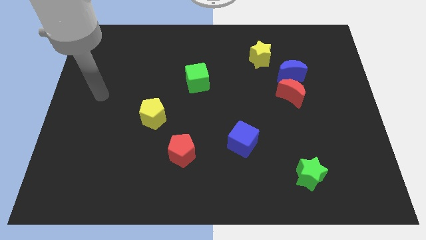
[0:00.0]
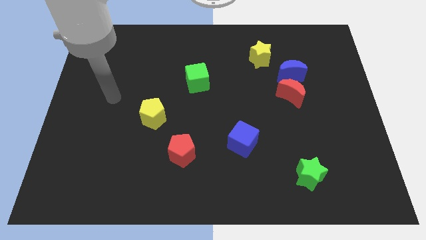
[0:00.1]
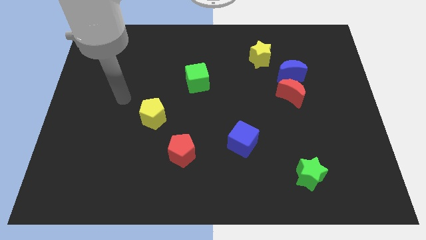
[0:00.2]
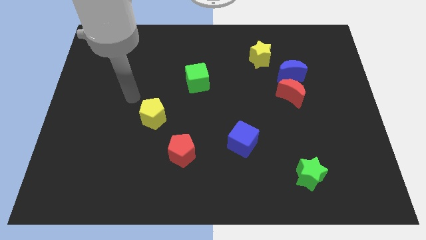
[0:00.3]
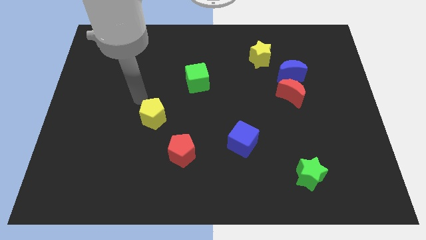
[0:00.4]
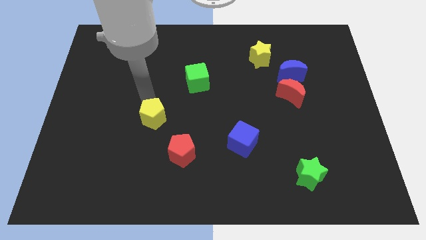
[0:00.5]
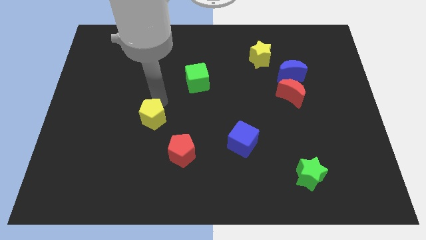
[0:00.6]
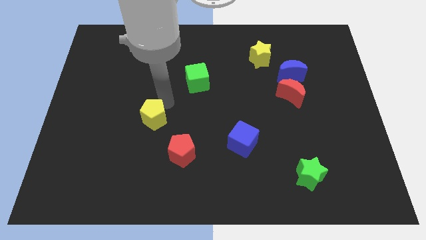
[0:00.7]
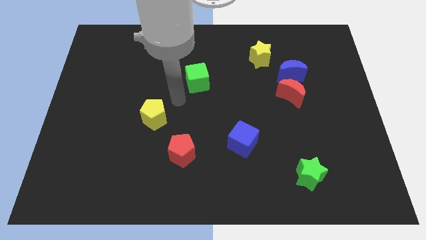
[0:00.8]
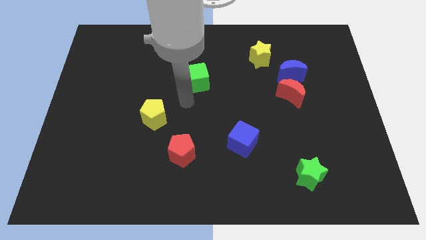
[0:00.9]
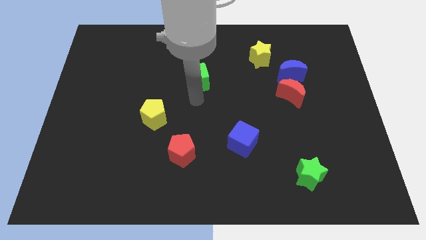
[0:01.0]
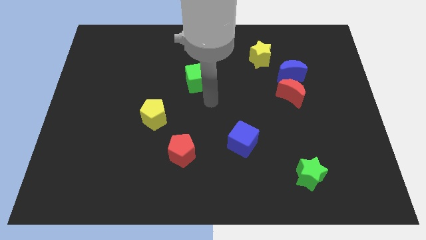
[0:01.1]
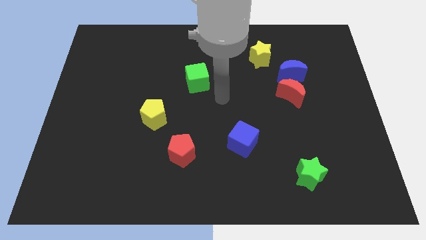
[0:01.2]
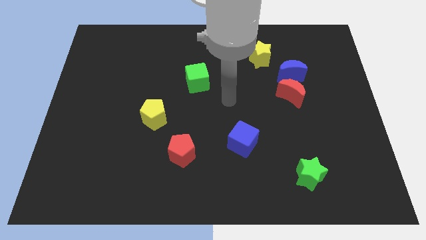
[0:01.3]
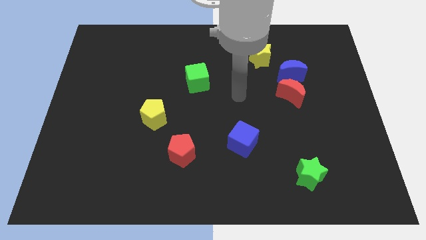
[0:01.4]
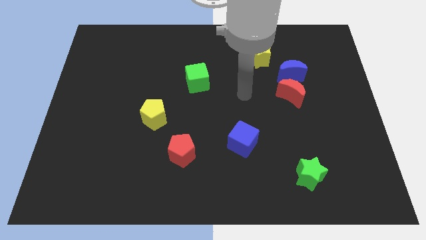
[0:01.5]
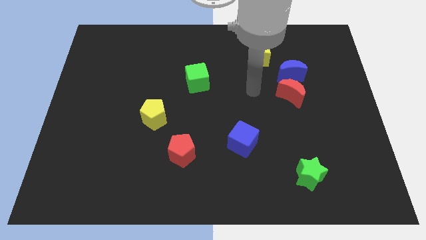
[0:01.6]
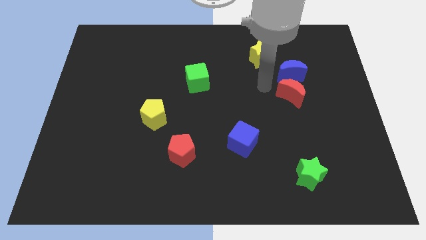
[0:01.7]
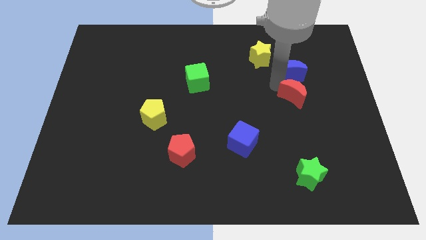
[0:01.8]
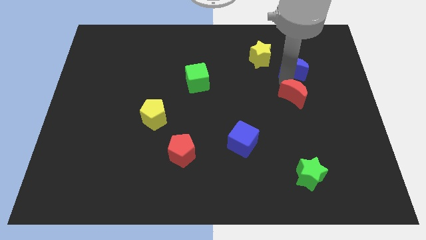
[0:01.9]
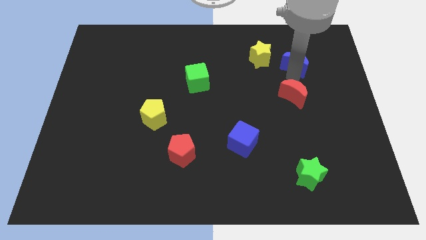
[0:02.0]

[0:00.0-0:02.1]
move the red moon away from the blue moon

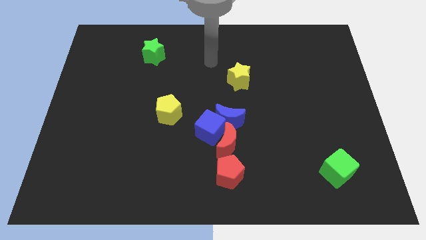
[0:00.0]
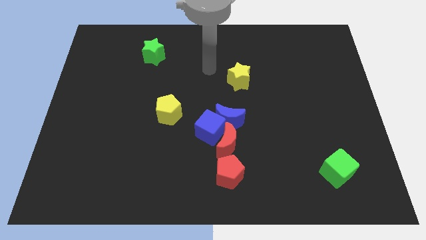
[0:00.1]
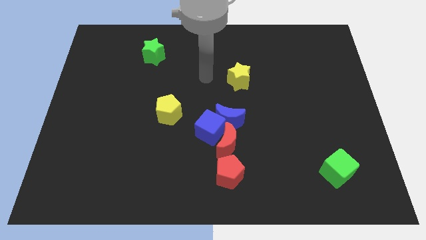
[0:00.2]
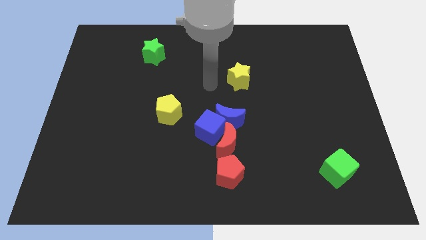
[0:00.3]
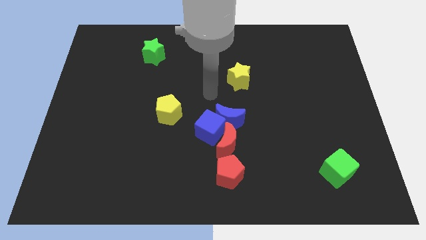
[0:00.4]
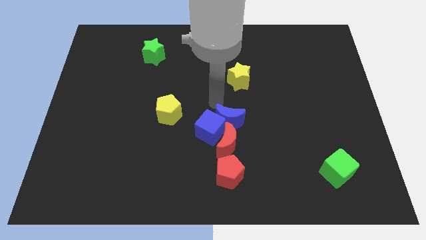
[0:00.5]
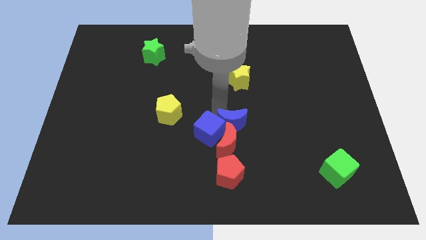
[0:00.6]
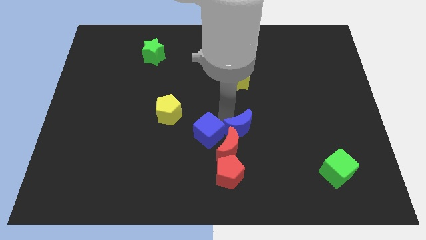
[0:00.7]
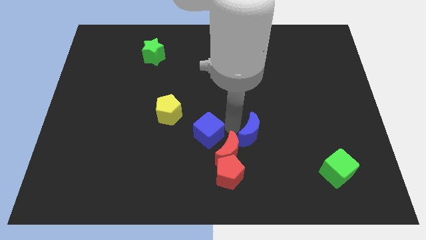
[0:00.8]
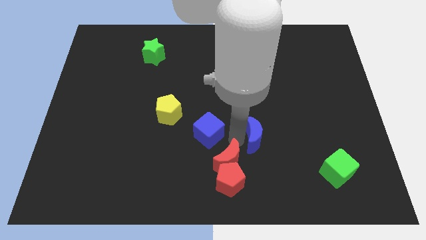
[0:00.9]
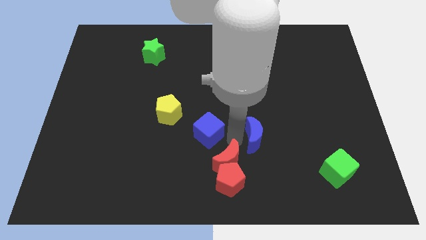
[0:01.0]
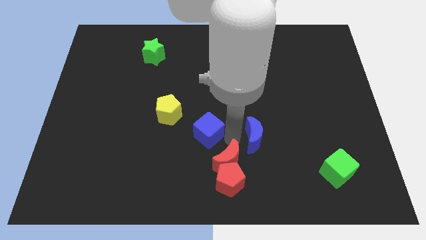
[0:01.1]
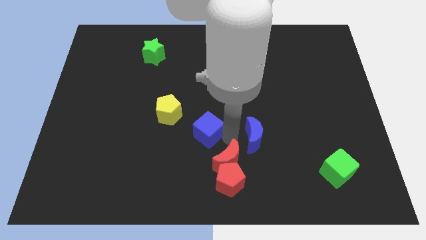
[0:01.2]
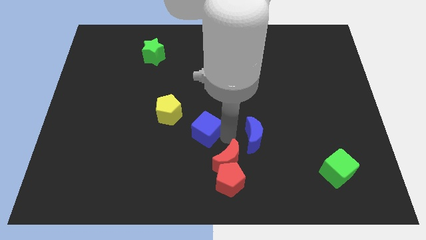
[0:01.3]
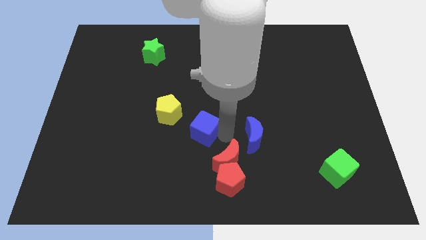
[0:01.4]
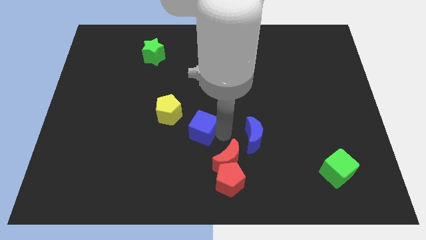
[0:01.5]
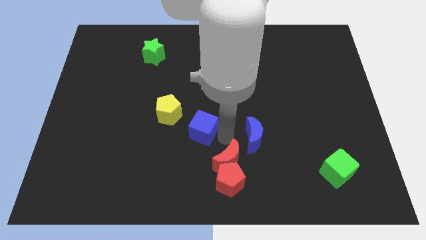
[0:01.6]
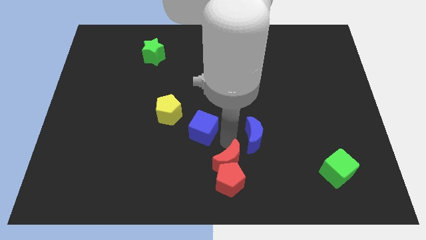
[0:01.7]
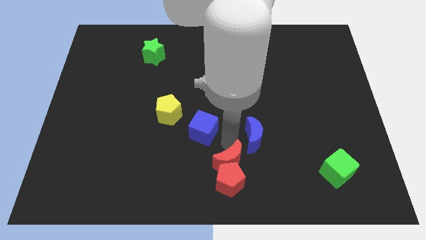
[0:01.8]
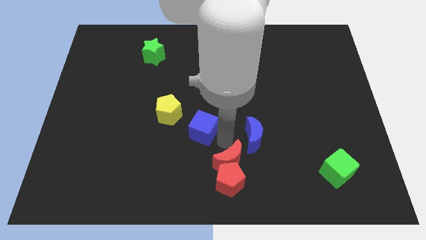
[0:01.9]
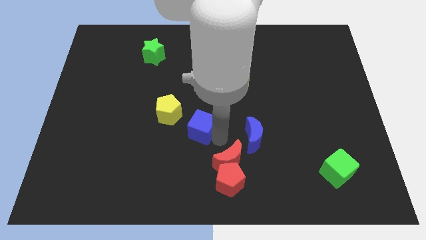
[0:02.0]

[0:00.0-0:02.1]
separate the blue cube from the blue moon and red moon

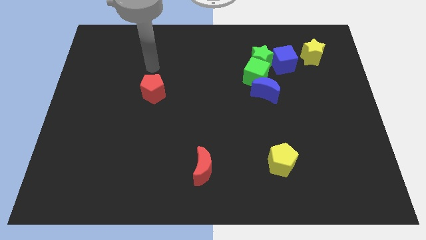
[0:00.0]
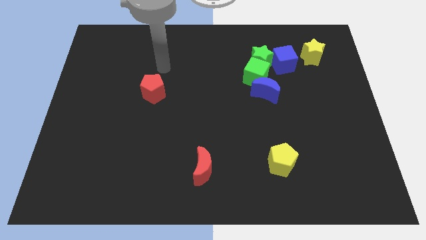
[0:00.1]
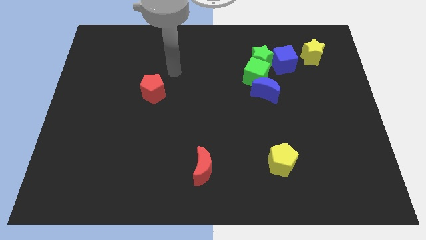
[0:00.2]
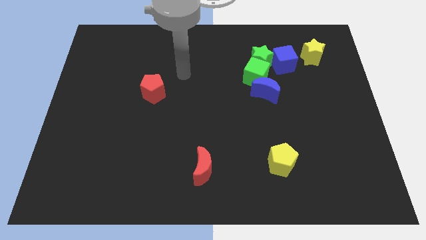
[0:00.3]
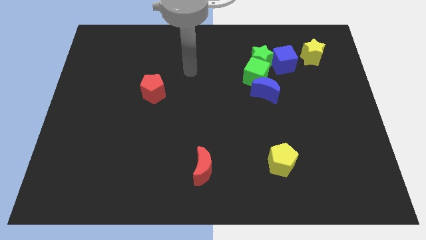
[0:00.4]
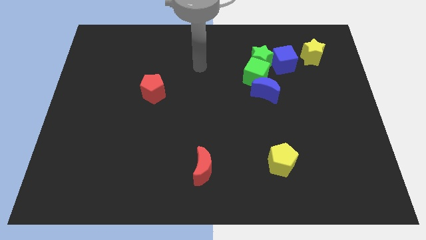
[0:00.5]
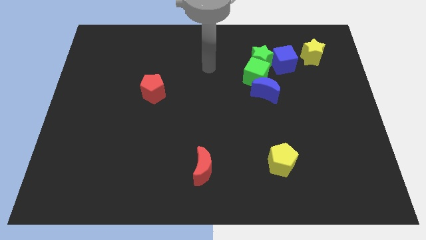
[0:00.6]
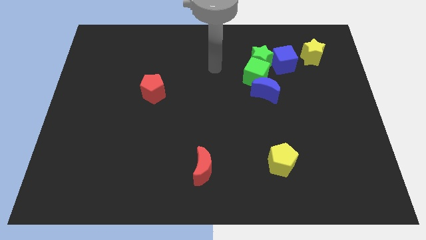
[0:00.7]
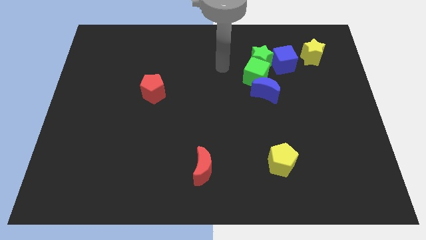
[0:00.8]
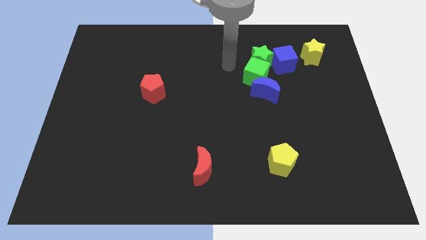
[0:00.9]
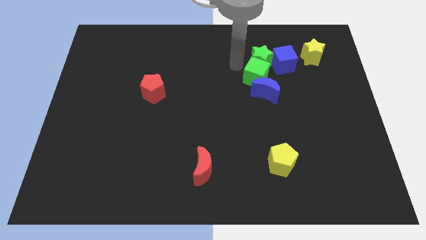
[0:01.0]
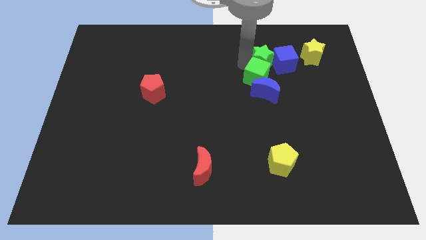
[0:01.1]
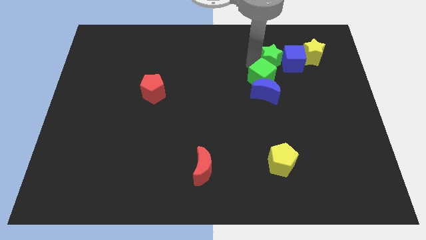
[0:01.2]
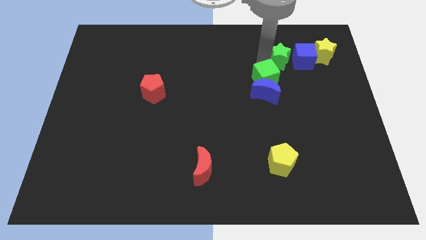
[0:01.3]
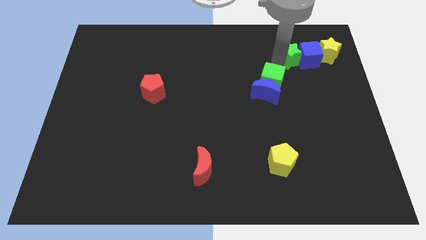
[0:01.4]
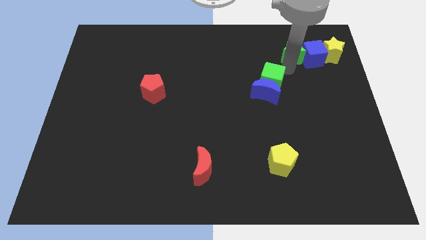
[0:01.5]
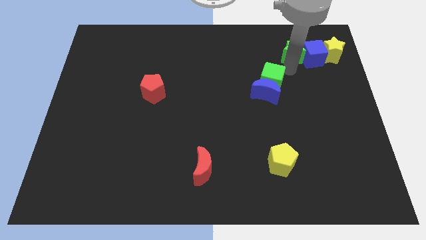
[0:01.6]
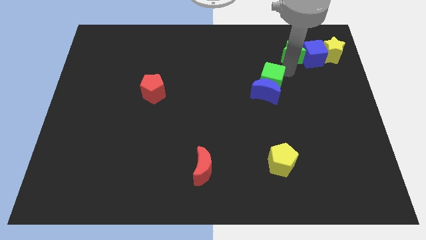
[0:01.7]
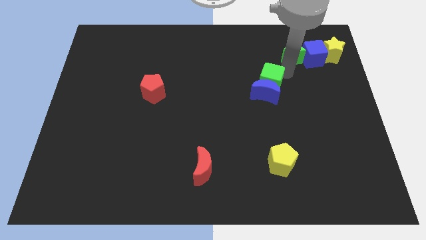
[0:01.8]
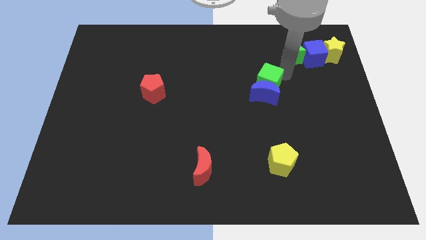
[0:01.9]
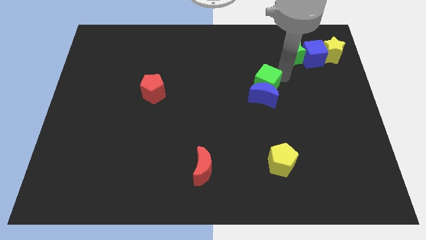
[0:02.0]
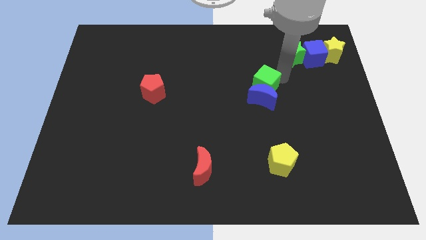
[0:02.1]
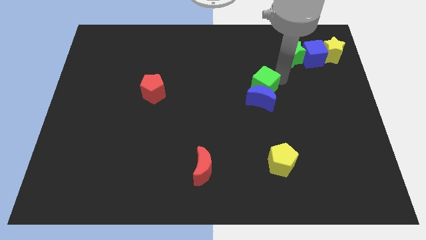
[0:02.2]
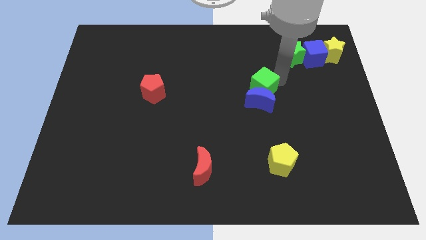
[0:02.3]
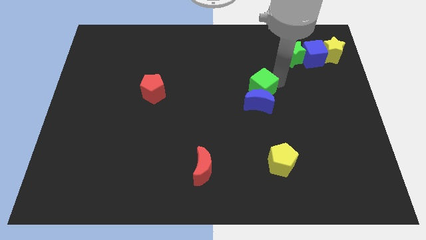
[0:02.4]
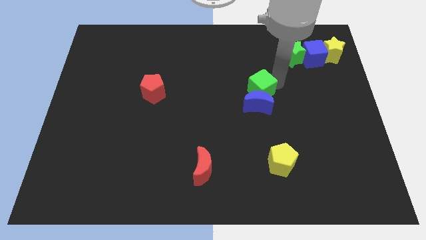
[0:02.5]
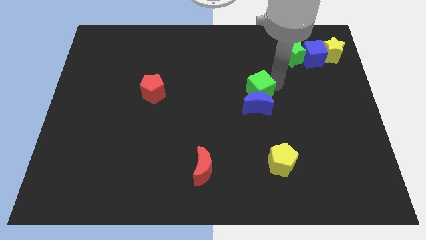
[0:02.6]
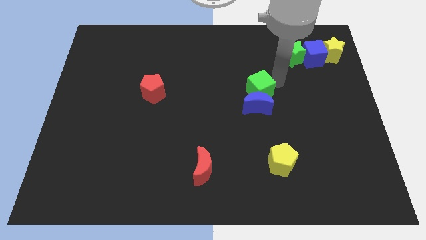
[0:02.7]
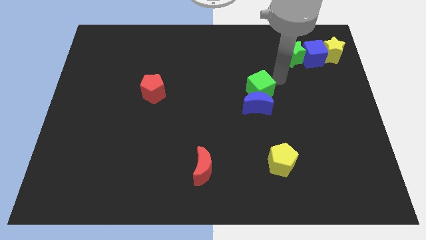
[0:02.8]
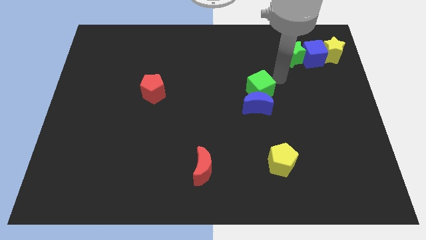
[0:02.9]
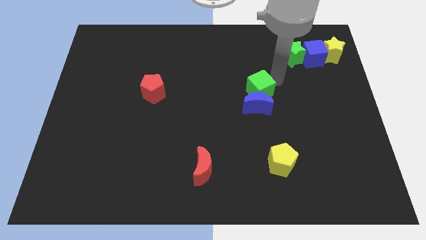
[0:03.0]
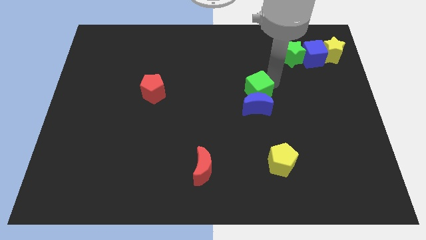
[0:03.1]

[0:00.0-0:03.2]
separate the green cube from the green star, blue moon, and blue cube

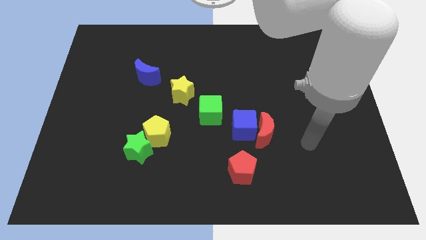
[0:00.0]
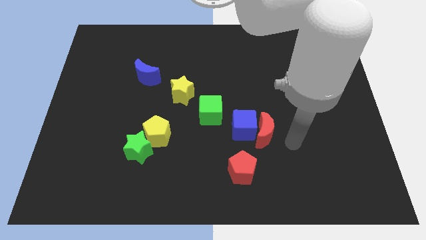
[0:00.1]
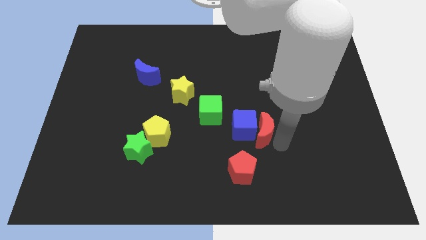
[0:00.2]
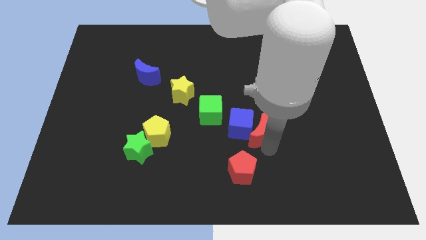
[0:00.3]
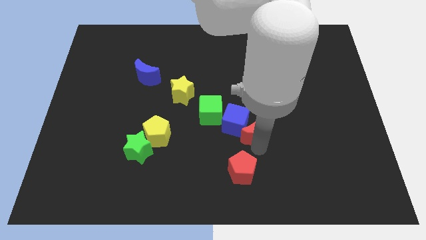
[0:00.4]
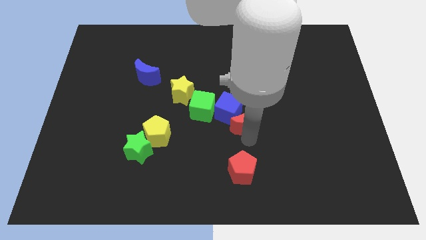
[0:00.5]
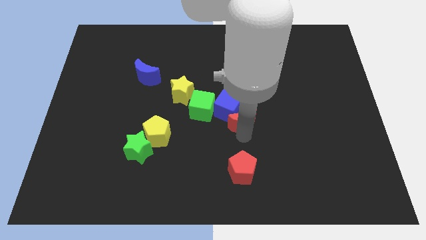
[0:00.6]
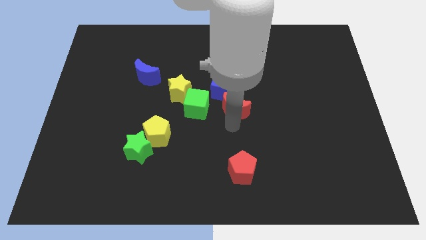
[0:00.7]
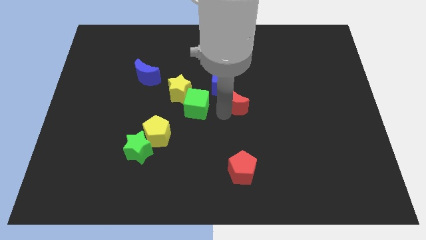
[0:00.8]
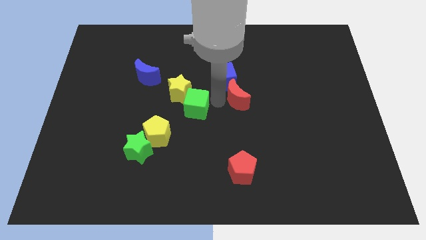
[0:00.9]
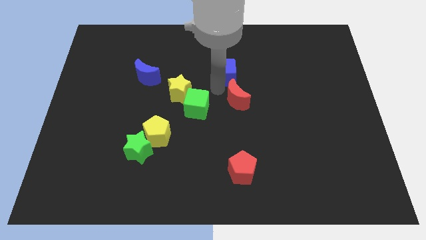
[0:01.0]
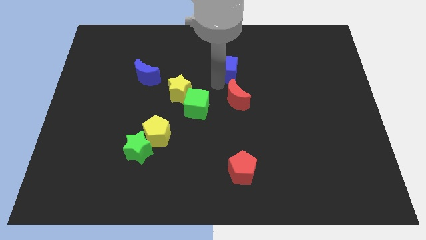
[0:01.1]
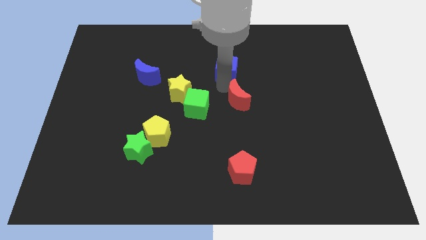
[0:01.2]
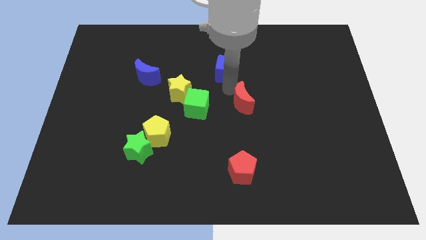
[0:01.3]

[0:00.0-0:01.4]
separate the red moon from the blue cube

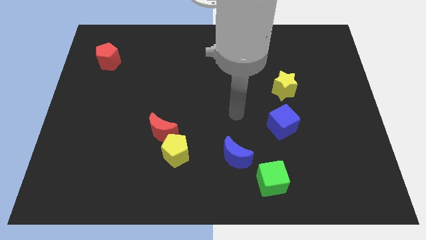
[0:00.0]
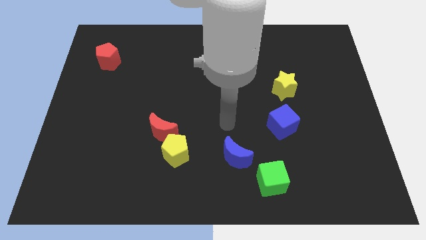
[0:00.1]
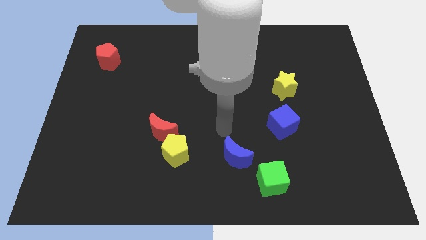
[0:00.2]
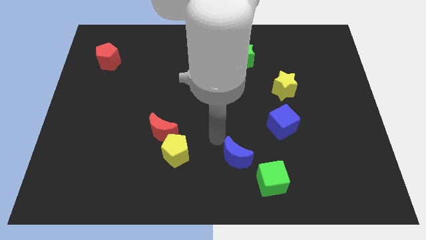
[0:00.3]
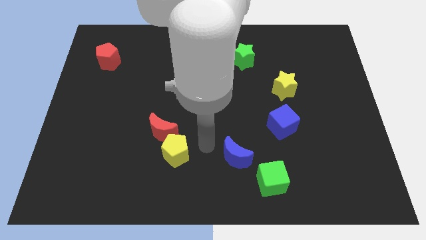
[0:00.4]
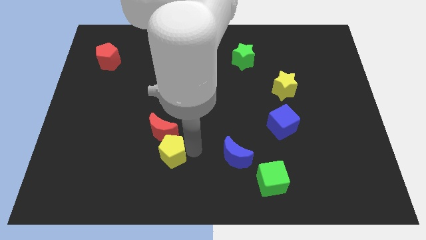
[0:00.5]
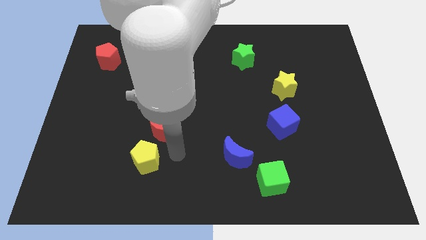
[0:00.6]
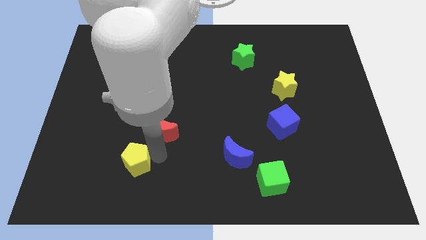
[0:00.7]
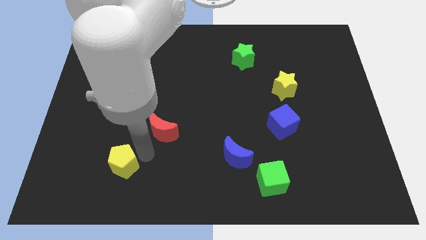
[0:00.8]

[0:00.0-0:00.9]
pull the red moon apart from the yellow pentagon
